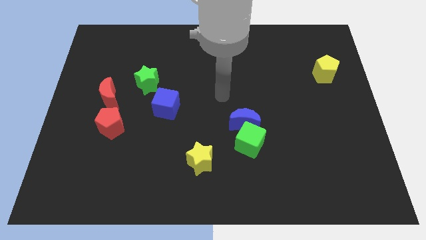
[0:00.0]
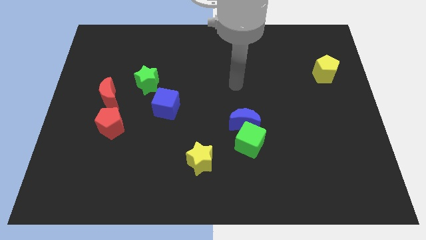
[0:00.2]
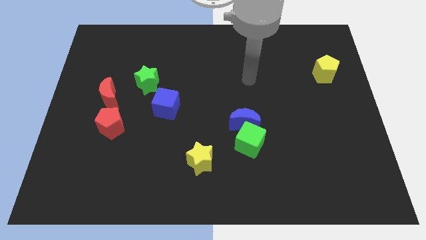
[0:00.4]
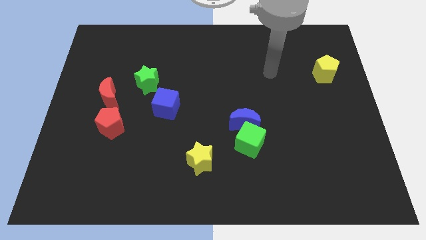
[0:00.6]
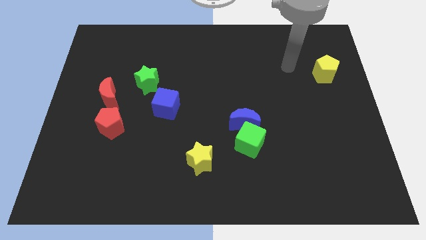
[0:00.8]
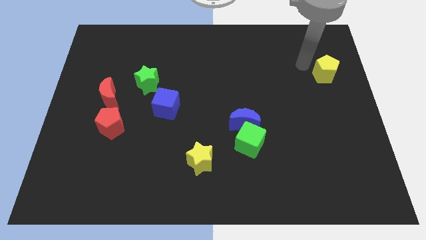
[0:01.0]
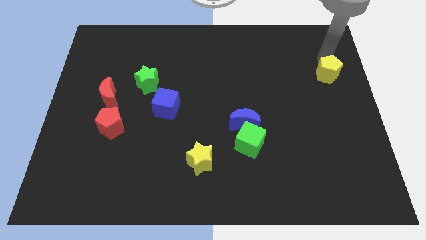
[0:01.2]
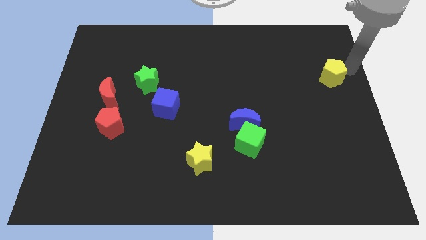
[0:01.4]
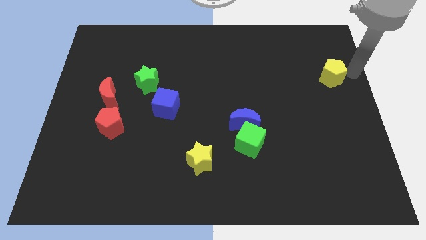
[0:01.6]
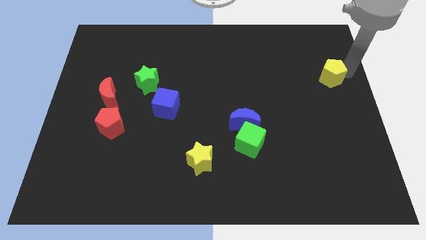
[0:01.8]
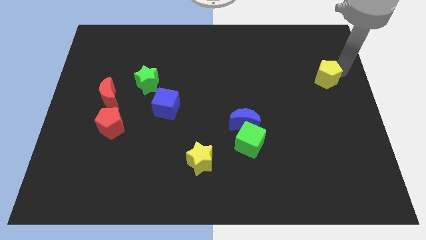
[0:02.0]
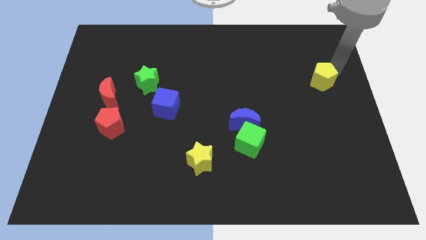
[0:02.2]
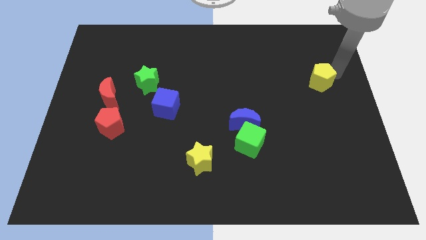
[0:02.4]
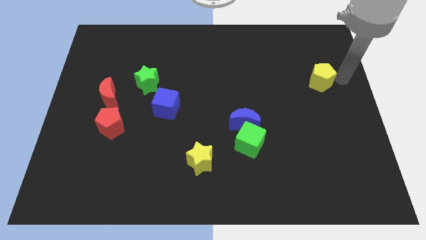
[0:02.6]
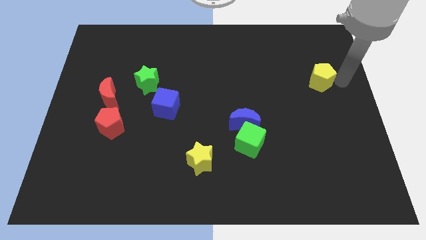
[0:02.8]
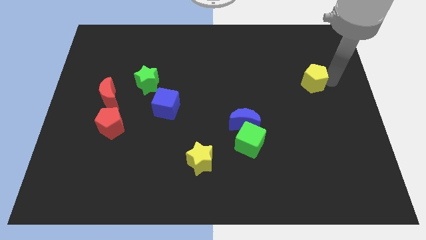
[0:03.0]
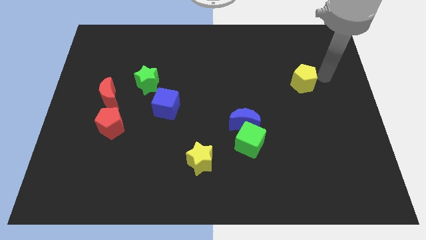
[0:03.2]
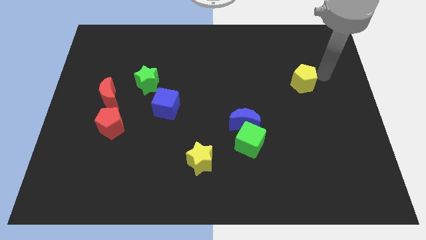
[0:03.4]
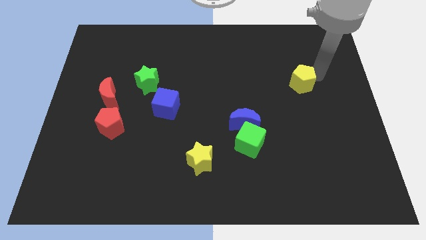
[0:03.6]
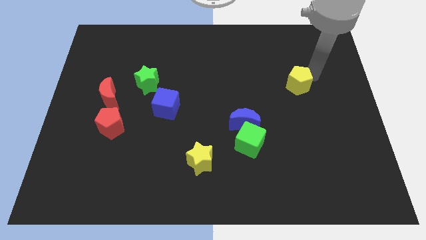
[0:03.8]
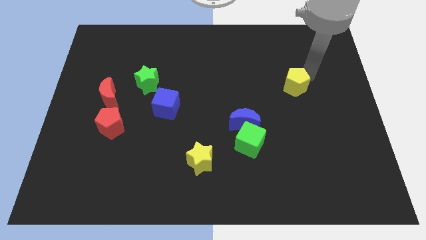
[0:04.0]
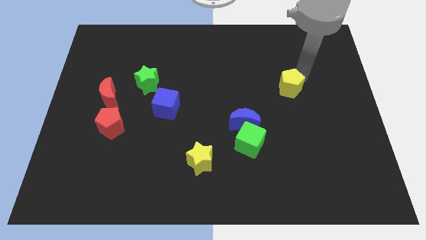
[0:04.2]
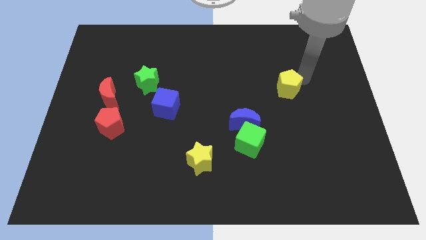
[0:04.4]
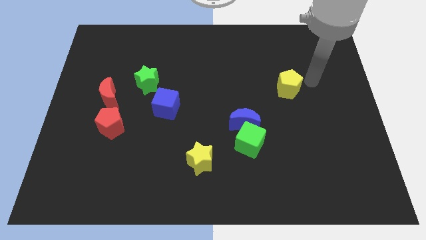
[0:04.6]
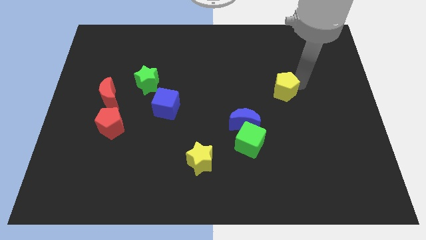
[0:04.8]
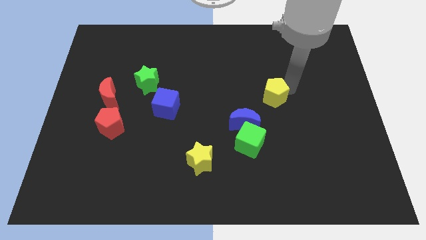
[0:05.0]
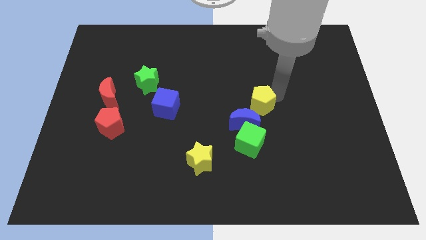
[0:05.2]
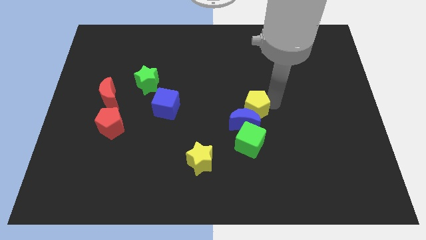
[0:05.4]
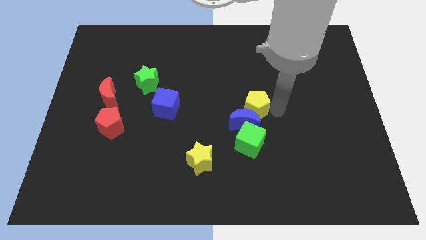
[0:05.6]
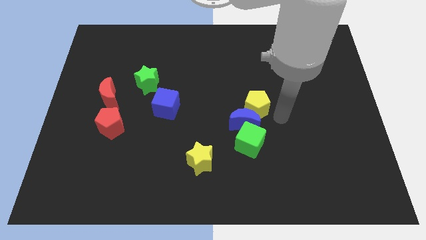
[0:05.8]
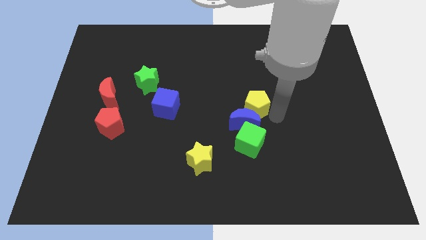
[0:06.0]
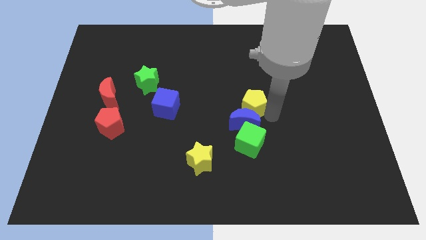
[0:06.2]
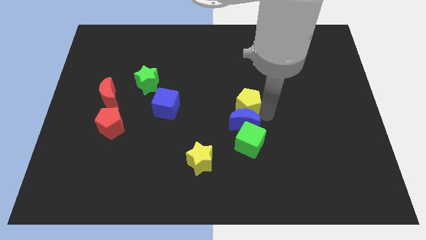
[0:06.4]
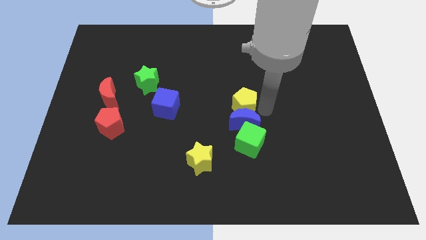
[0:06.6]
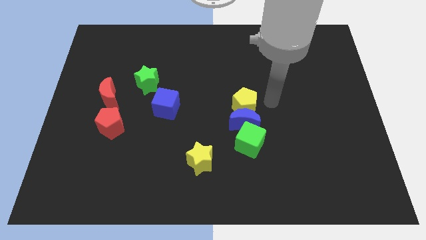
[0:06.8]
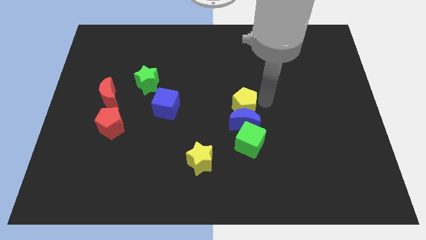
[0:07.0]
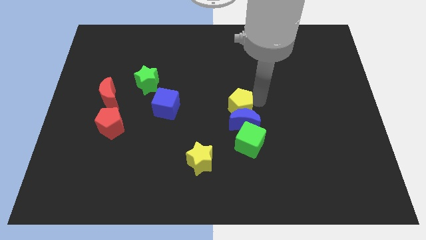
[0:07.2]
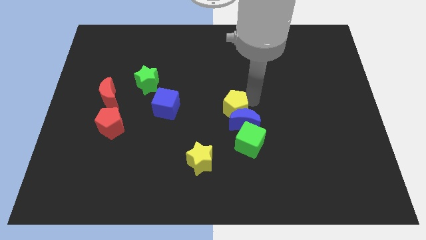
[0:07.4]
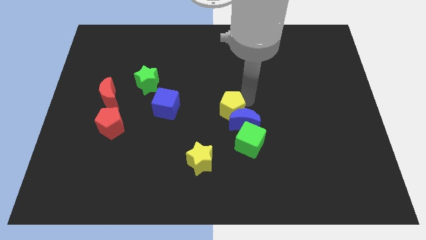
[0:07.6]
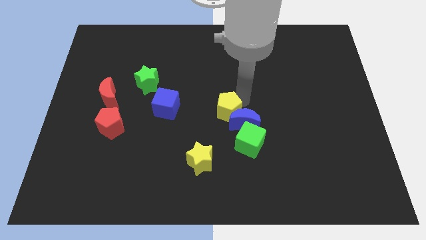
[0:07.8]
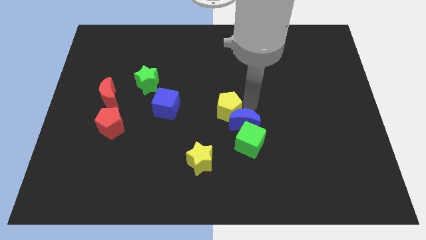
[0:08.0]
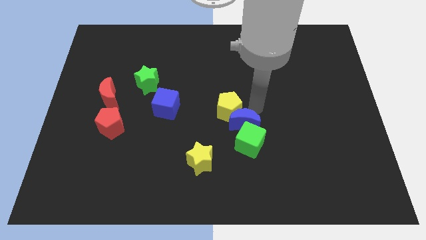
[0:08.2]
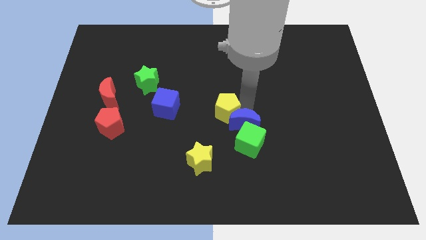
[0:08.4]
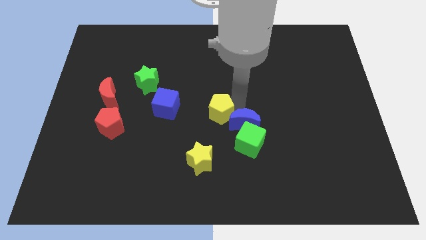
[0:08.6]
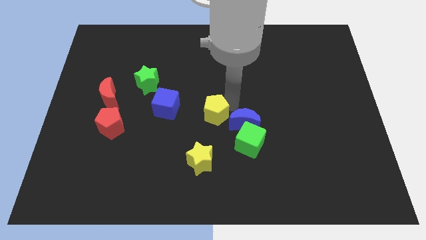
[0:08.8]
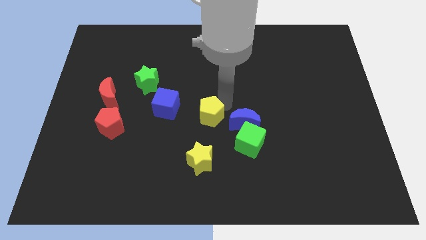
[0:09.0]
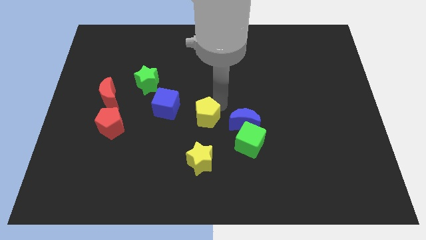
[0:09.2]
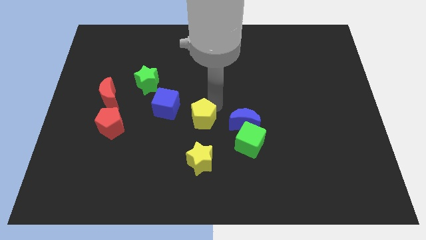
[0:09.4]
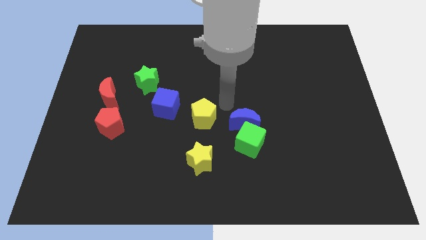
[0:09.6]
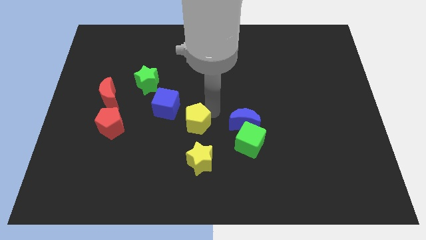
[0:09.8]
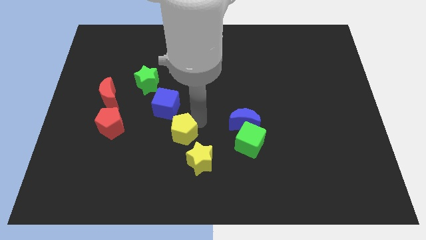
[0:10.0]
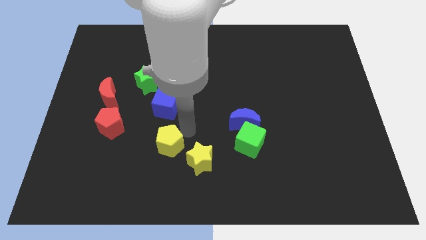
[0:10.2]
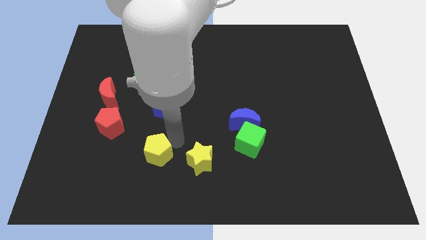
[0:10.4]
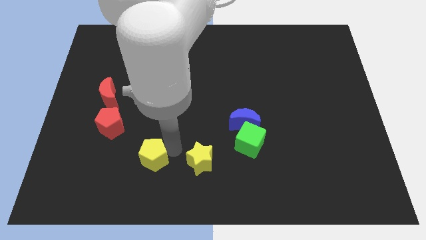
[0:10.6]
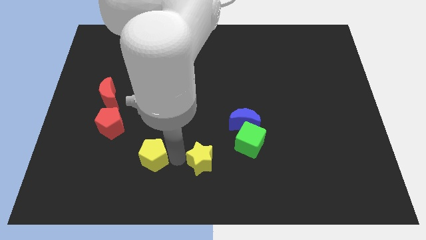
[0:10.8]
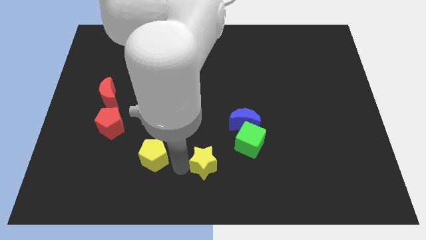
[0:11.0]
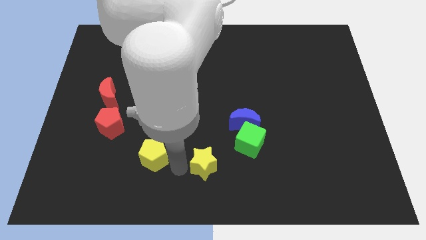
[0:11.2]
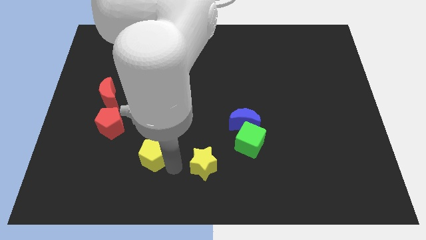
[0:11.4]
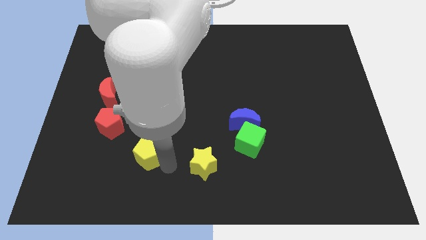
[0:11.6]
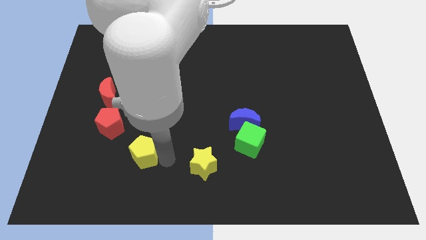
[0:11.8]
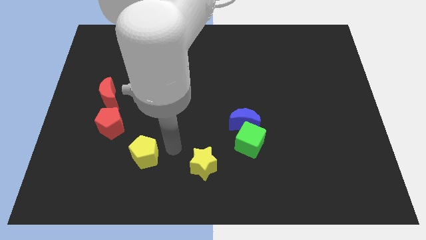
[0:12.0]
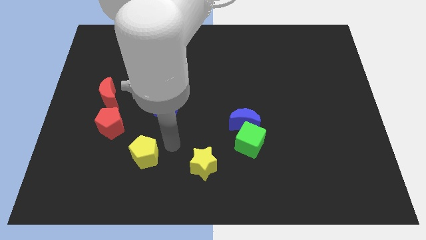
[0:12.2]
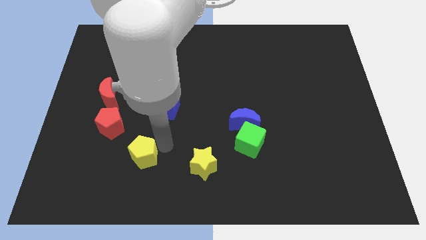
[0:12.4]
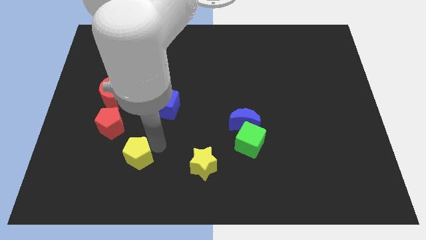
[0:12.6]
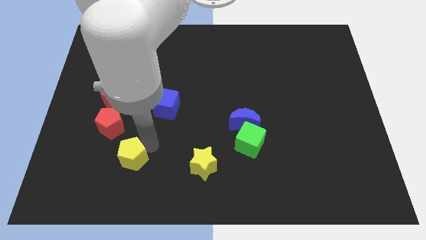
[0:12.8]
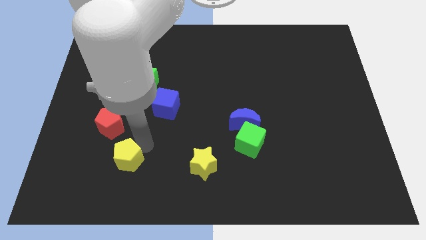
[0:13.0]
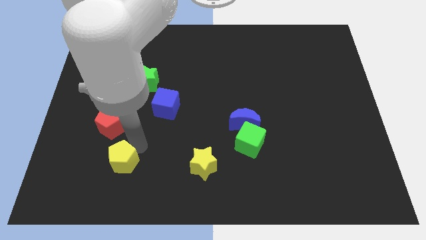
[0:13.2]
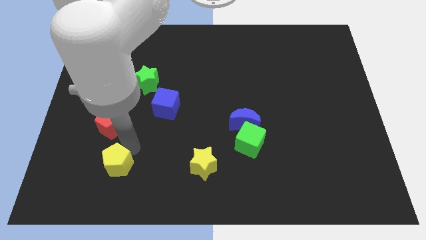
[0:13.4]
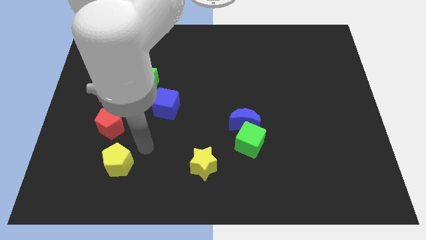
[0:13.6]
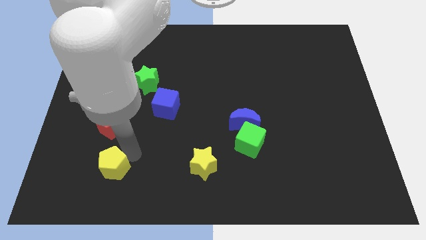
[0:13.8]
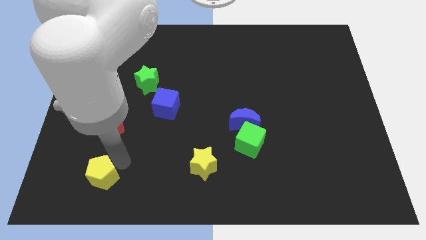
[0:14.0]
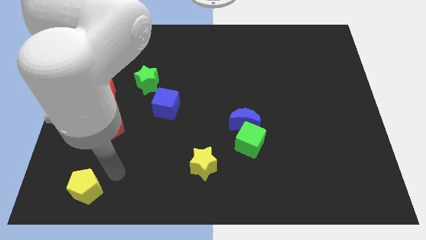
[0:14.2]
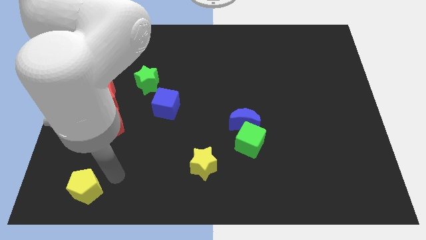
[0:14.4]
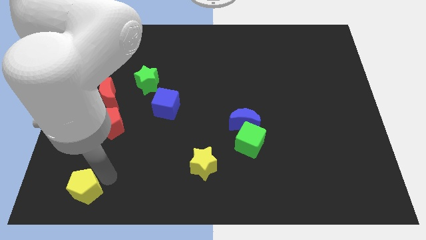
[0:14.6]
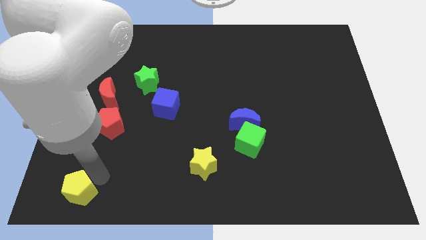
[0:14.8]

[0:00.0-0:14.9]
move the yellow pentagon to the bottom left
